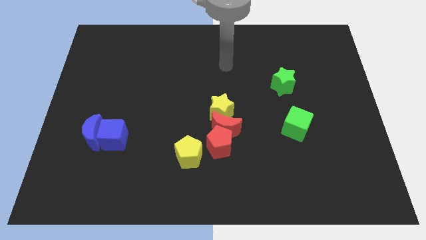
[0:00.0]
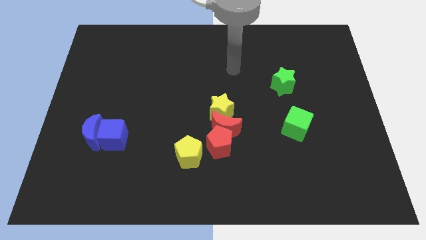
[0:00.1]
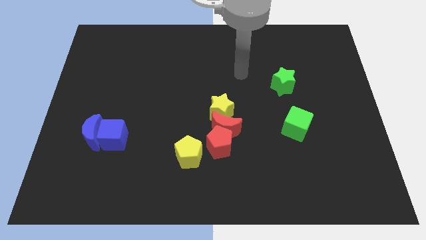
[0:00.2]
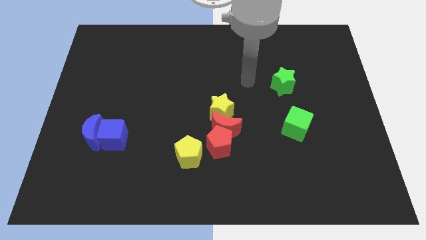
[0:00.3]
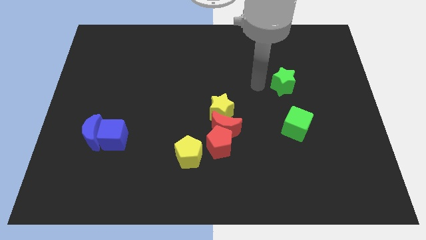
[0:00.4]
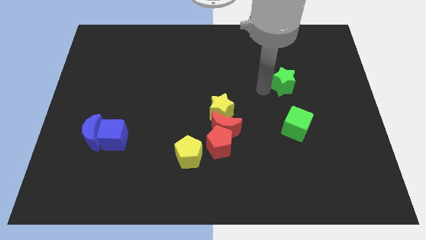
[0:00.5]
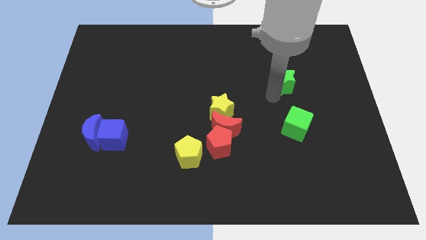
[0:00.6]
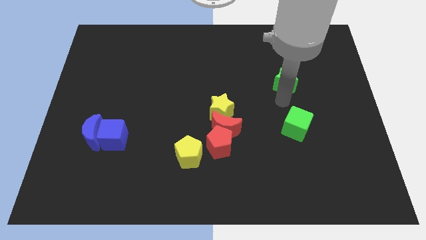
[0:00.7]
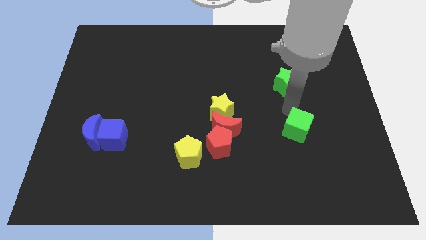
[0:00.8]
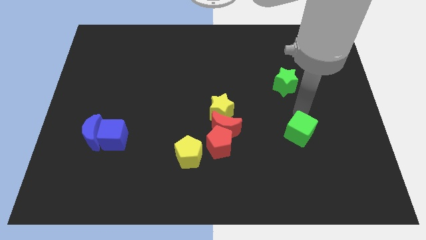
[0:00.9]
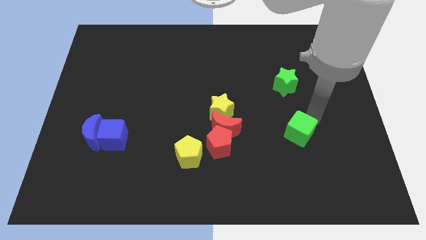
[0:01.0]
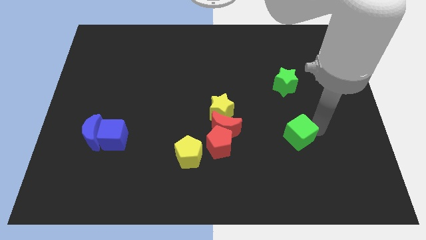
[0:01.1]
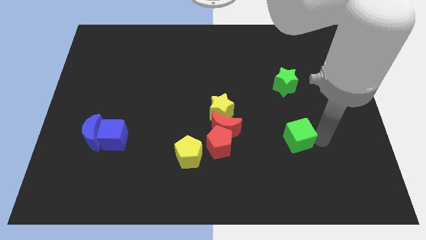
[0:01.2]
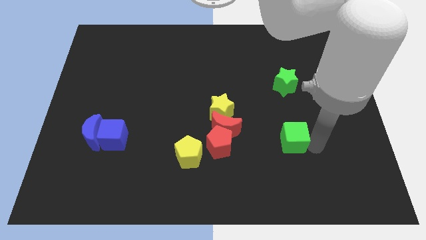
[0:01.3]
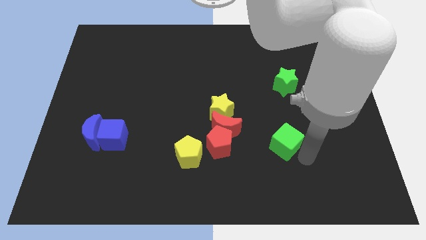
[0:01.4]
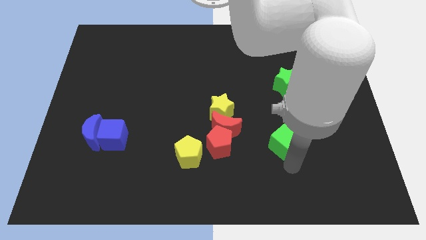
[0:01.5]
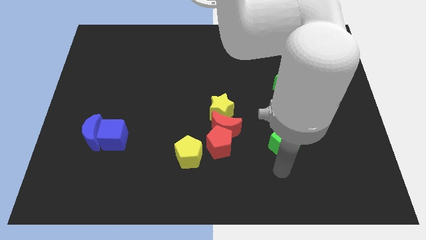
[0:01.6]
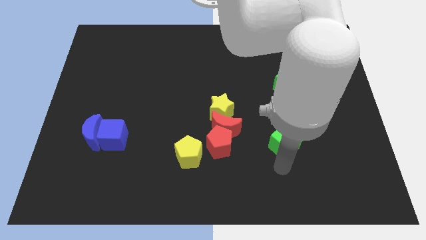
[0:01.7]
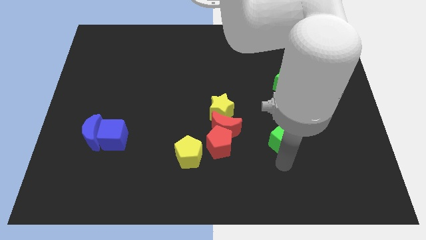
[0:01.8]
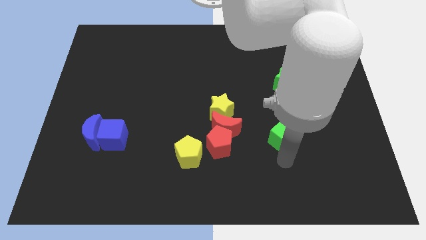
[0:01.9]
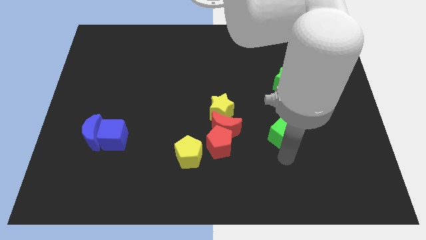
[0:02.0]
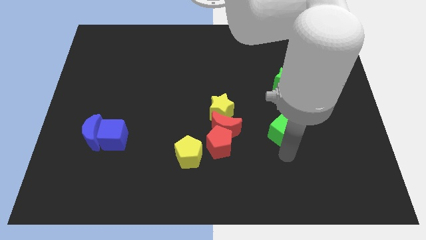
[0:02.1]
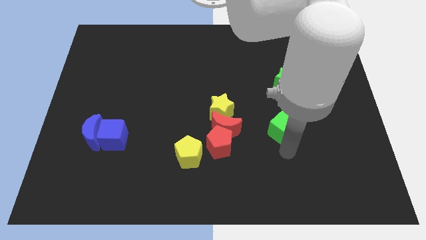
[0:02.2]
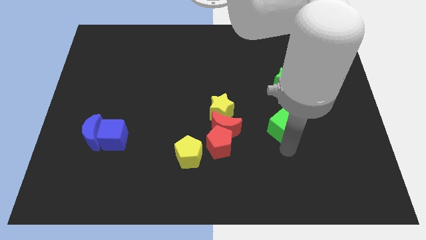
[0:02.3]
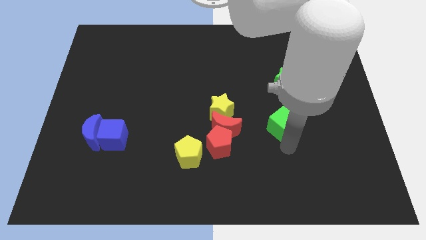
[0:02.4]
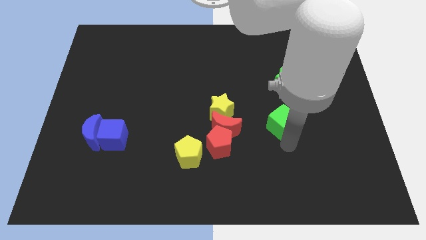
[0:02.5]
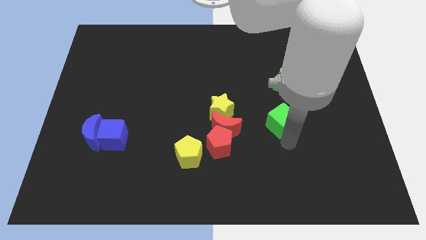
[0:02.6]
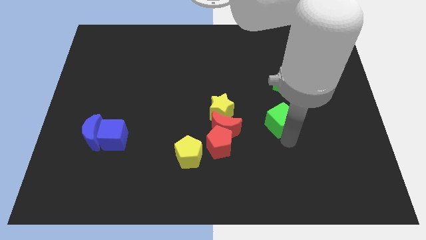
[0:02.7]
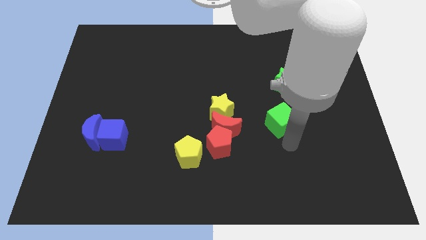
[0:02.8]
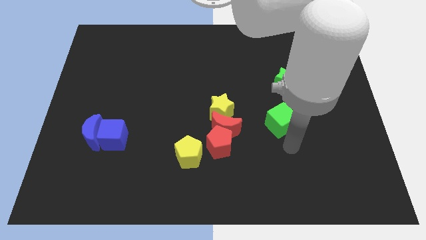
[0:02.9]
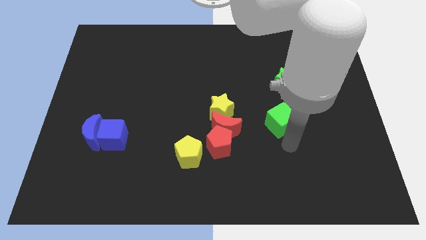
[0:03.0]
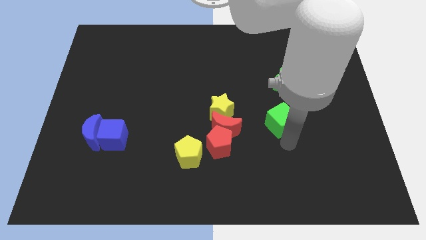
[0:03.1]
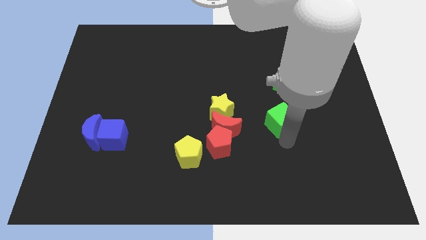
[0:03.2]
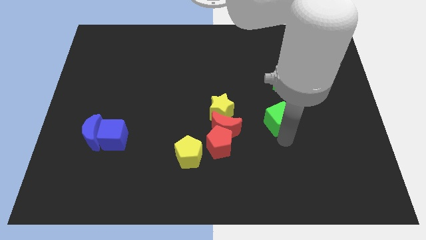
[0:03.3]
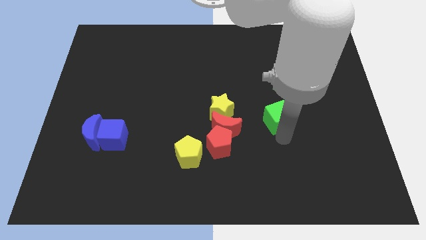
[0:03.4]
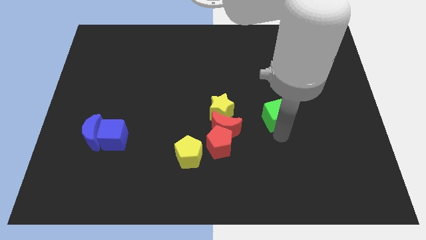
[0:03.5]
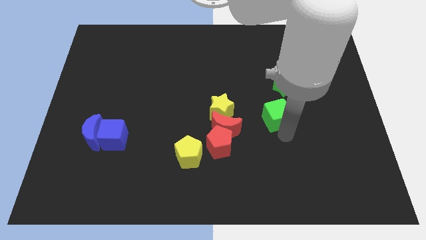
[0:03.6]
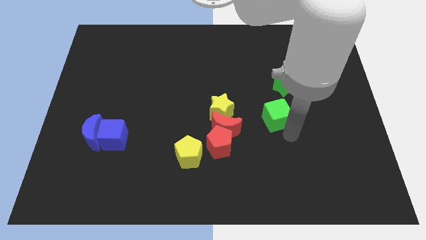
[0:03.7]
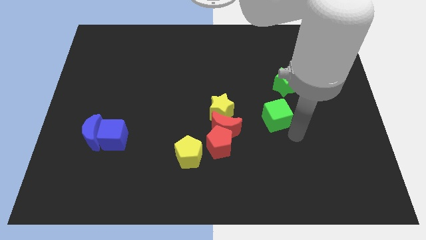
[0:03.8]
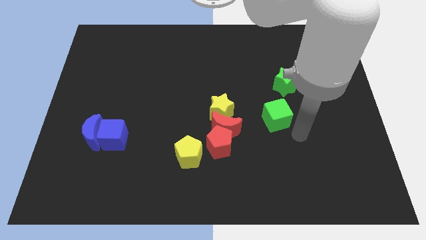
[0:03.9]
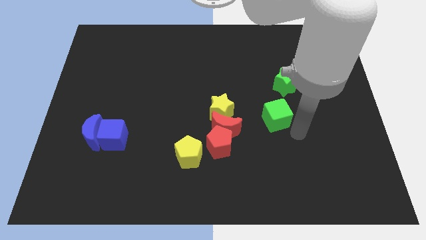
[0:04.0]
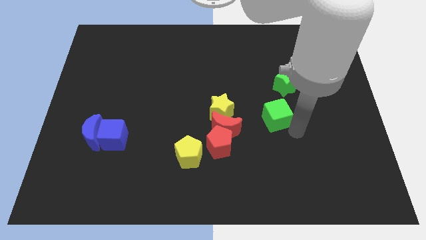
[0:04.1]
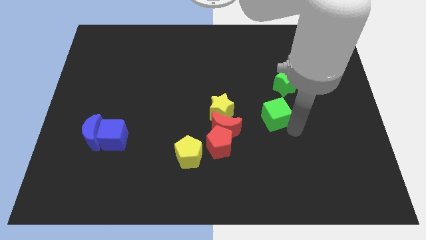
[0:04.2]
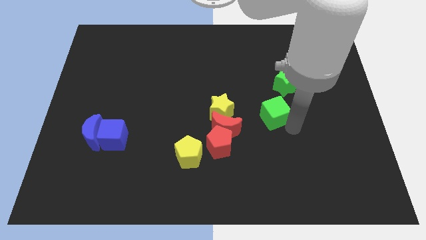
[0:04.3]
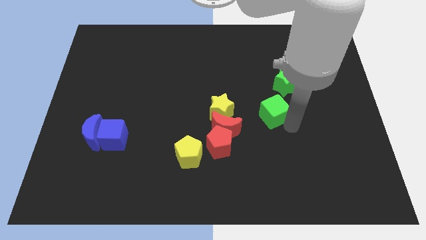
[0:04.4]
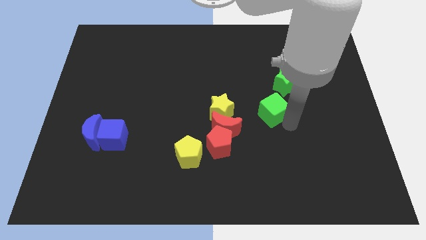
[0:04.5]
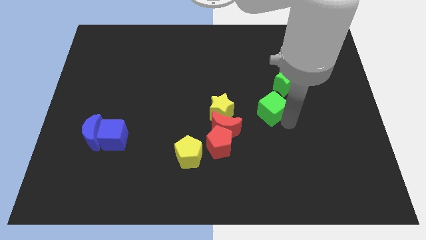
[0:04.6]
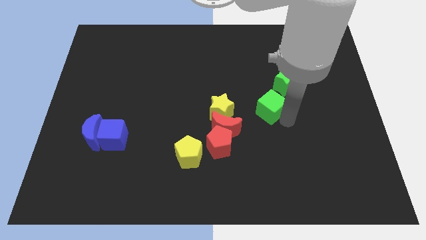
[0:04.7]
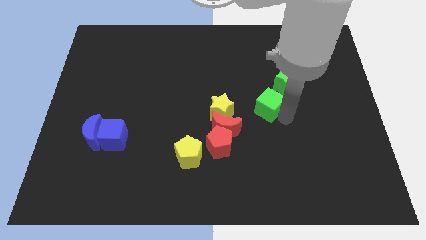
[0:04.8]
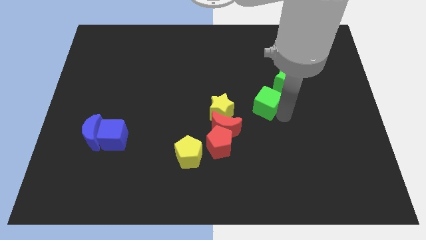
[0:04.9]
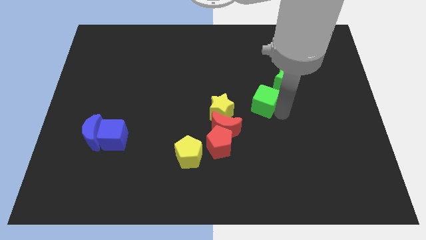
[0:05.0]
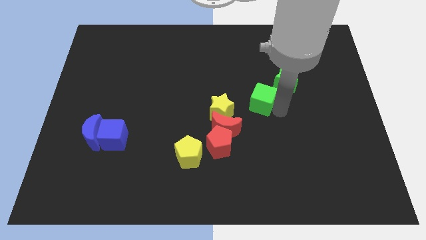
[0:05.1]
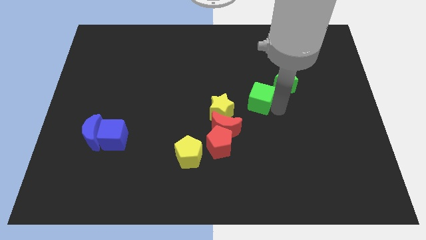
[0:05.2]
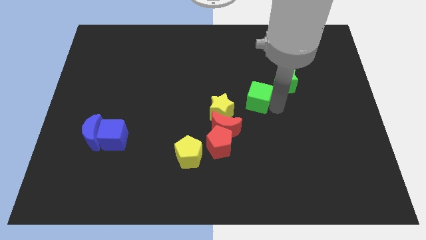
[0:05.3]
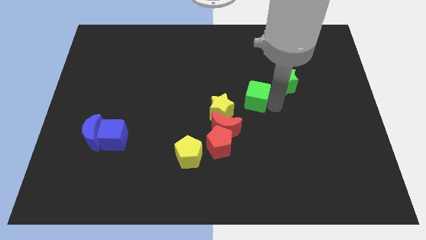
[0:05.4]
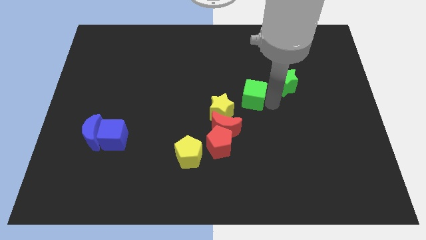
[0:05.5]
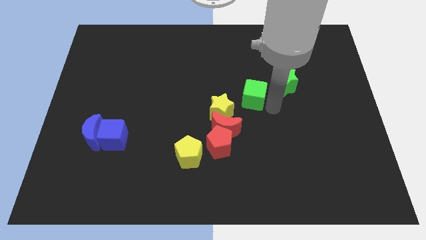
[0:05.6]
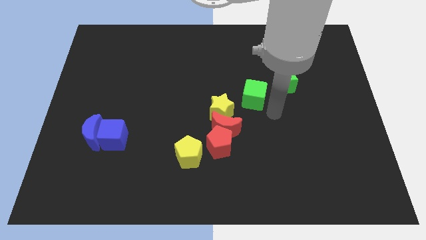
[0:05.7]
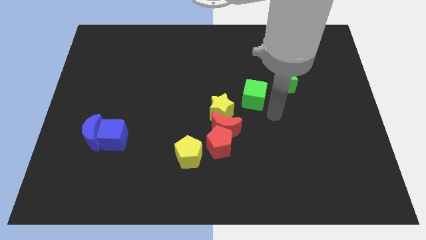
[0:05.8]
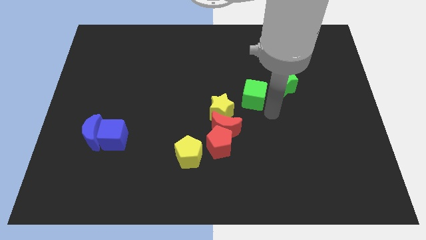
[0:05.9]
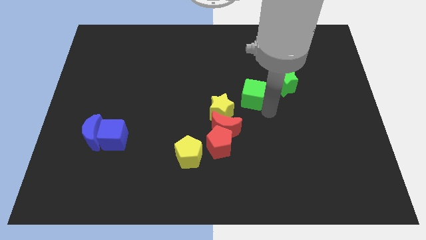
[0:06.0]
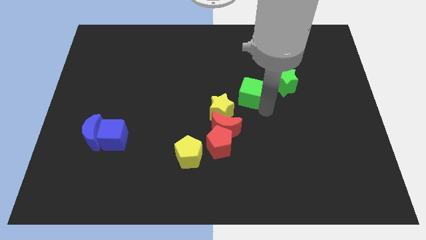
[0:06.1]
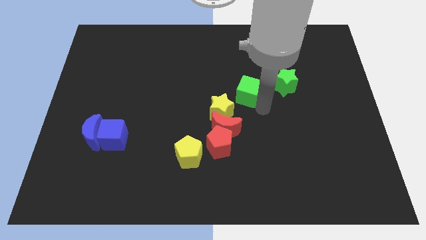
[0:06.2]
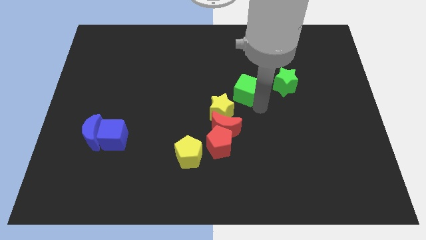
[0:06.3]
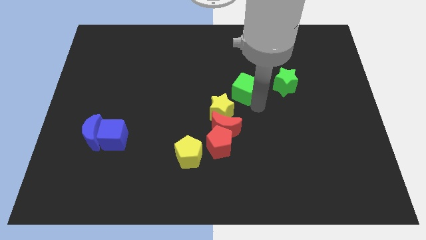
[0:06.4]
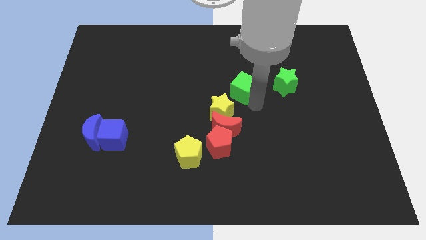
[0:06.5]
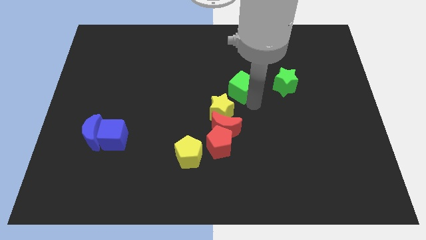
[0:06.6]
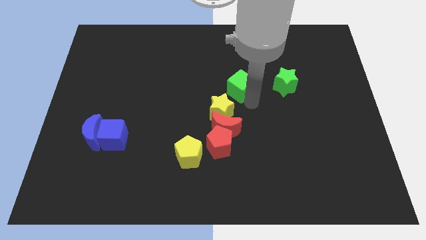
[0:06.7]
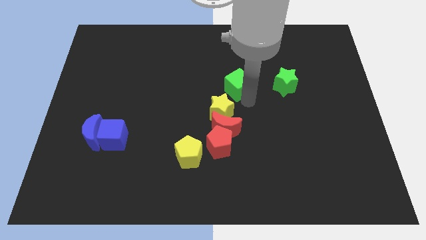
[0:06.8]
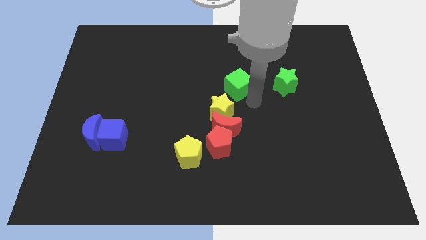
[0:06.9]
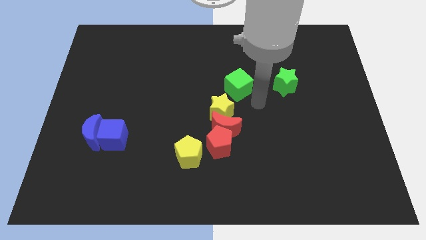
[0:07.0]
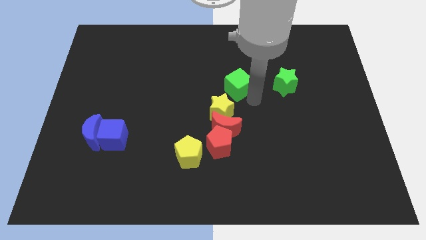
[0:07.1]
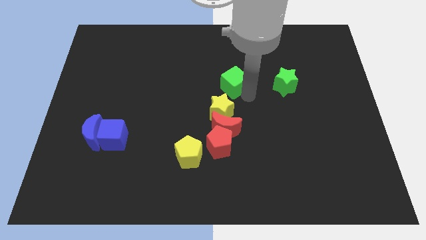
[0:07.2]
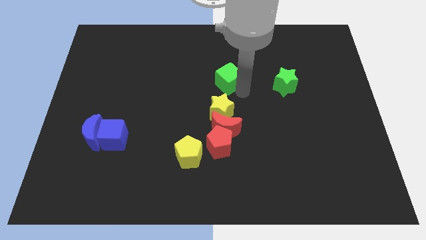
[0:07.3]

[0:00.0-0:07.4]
push the green cube up and to the left diagonally

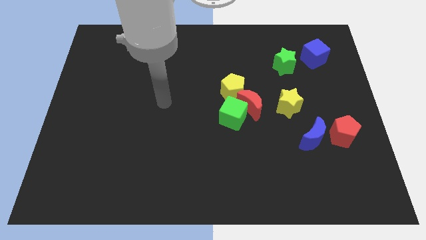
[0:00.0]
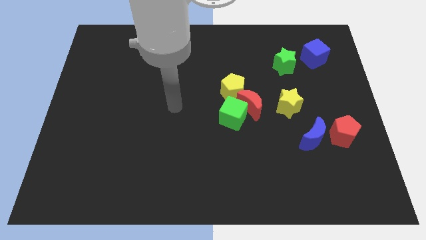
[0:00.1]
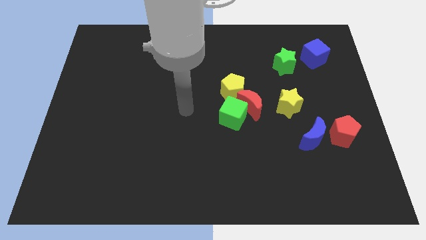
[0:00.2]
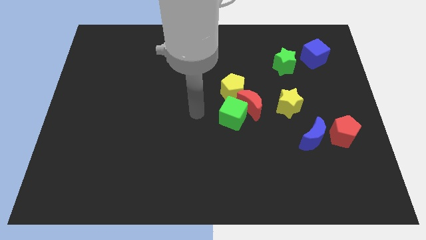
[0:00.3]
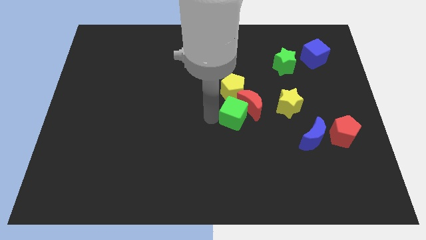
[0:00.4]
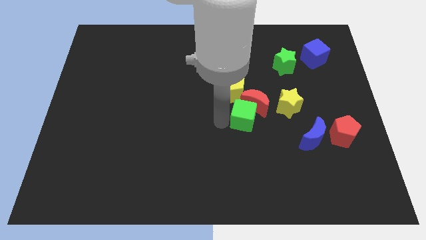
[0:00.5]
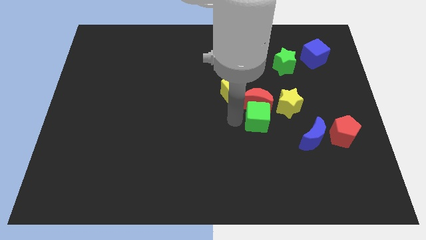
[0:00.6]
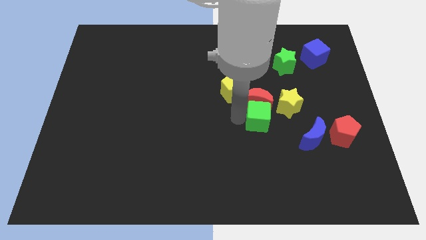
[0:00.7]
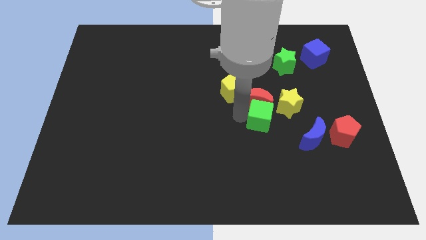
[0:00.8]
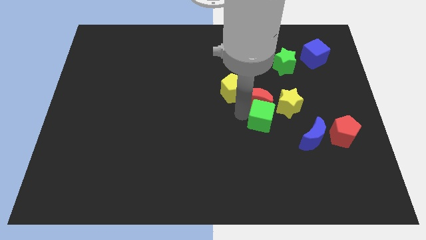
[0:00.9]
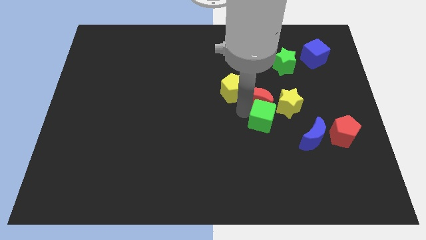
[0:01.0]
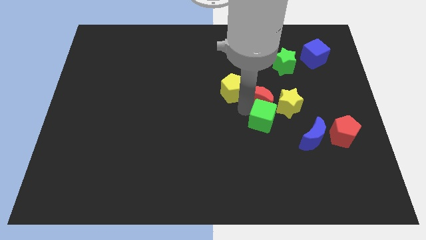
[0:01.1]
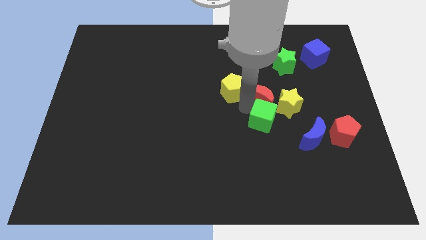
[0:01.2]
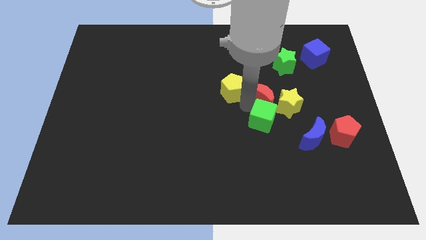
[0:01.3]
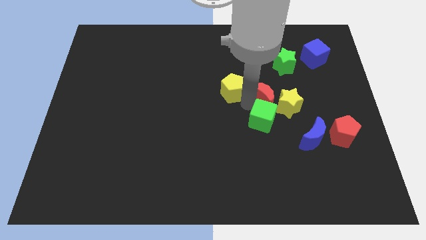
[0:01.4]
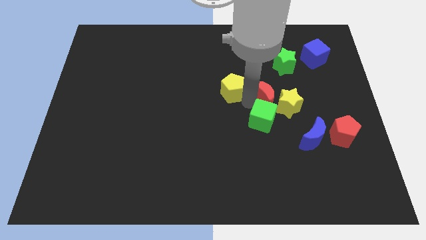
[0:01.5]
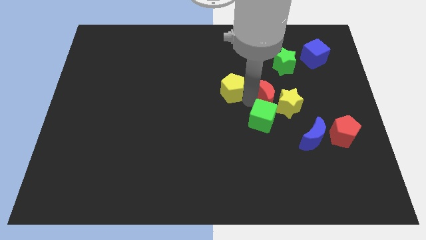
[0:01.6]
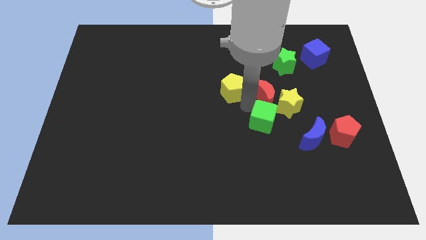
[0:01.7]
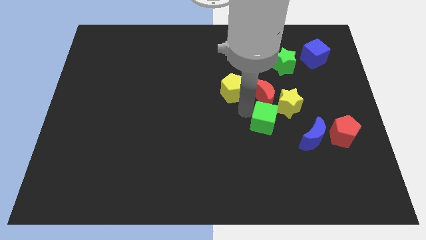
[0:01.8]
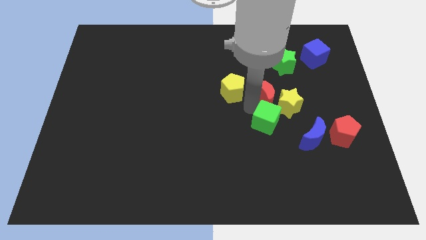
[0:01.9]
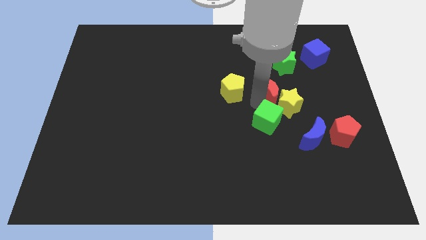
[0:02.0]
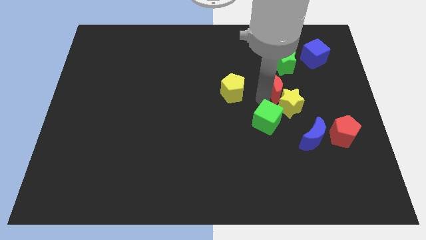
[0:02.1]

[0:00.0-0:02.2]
slightly slide the red moon diagonally upwards and to the right
